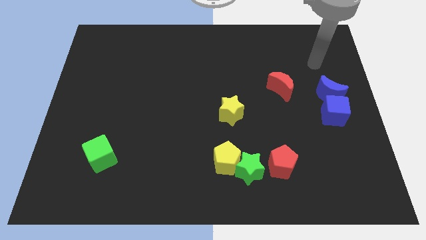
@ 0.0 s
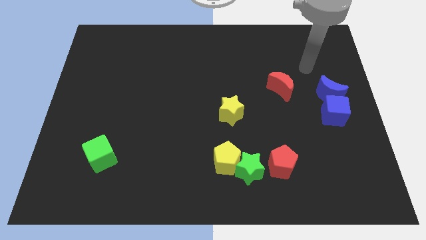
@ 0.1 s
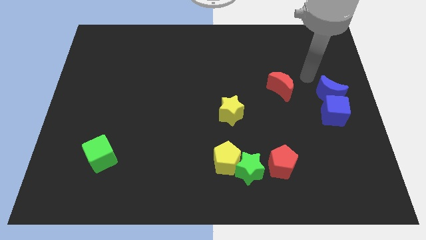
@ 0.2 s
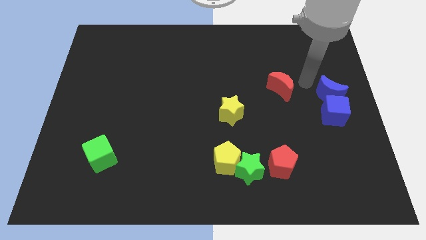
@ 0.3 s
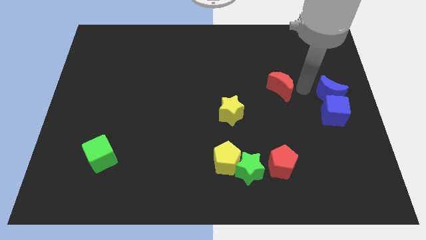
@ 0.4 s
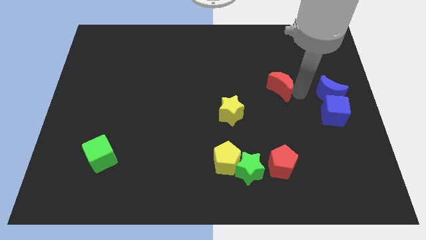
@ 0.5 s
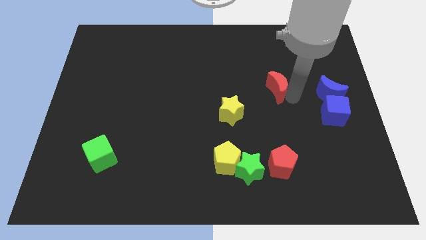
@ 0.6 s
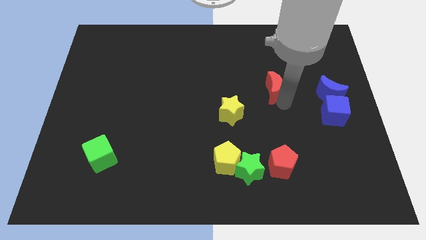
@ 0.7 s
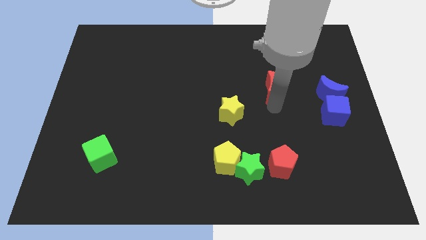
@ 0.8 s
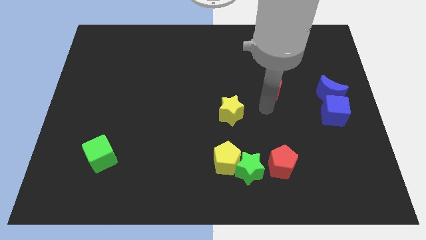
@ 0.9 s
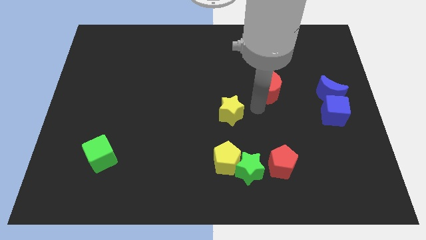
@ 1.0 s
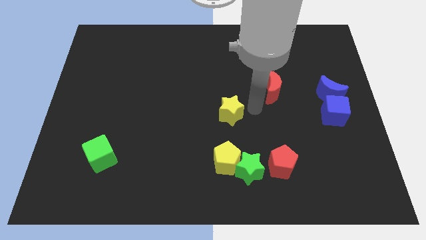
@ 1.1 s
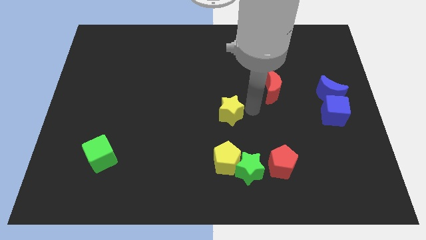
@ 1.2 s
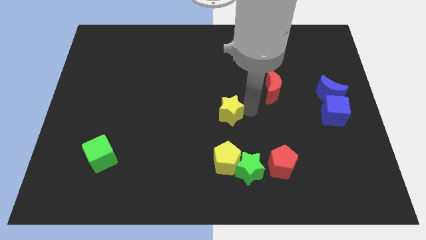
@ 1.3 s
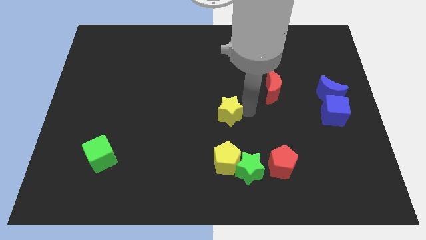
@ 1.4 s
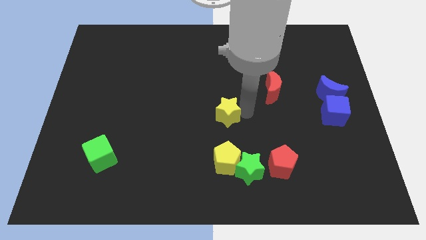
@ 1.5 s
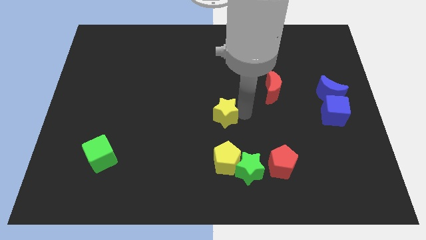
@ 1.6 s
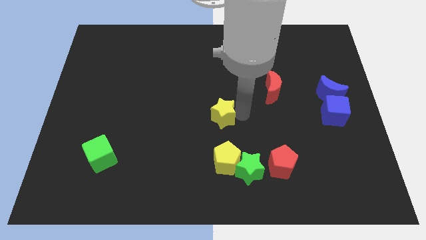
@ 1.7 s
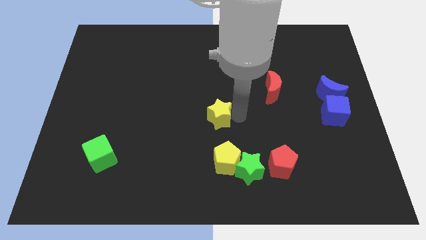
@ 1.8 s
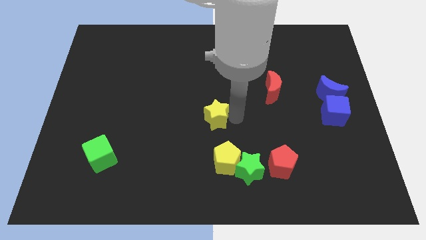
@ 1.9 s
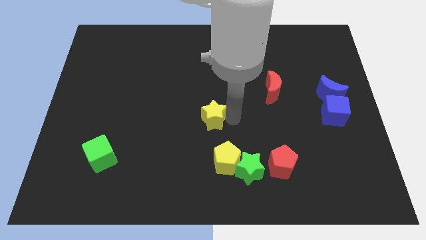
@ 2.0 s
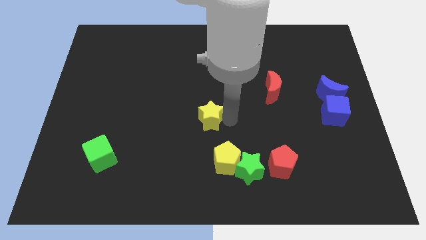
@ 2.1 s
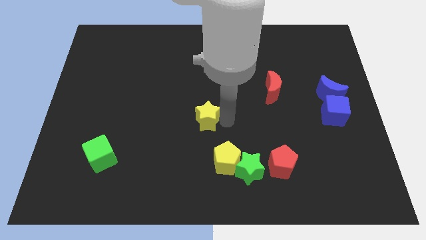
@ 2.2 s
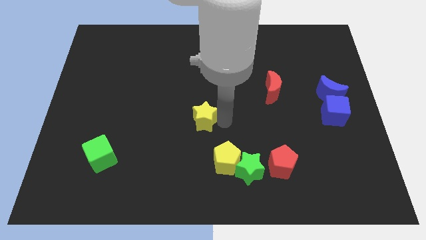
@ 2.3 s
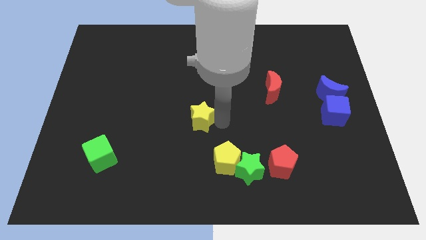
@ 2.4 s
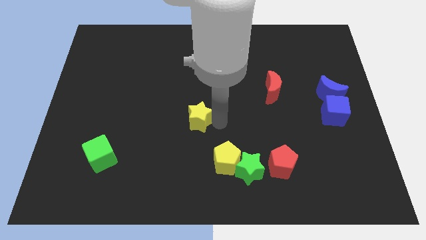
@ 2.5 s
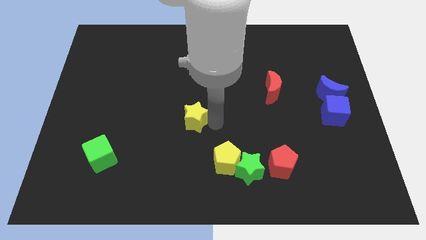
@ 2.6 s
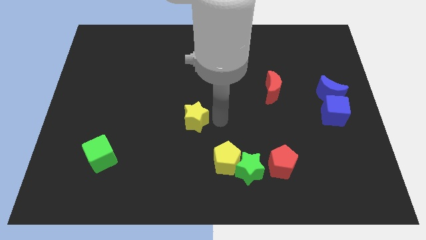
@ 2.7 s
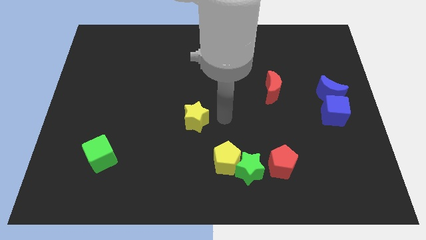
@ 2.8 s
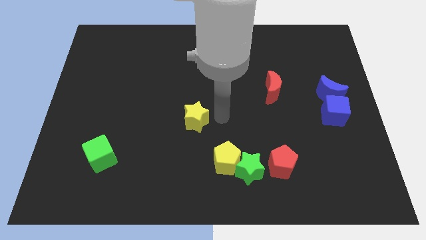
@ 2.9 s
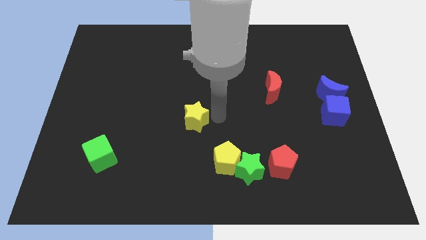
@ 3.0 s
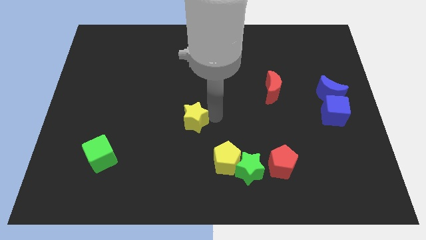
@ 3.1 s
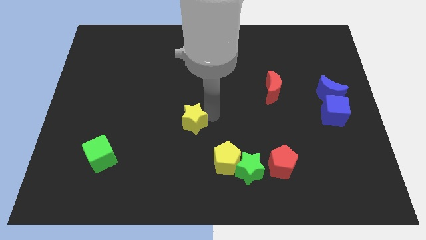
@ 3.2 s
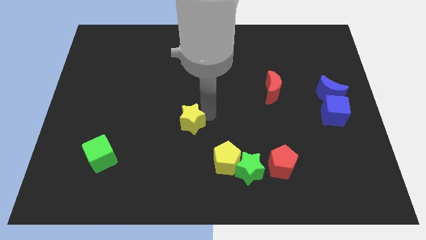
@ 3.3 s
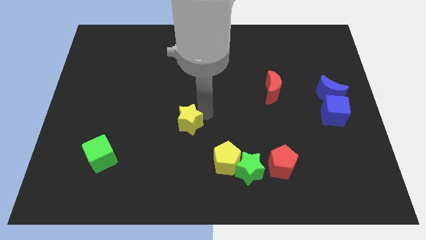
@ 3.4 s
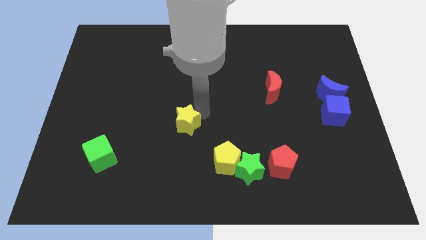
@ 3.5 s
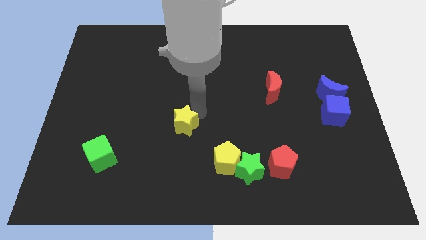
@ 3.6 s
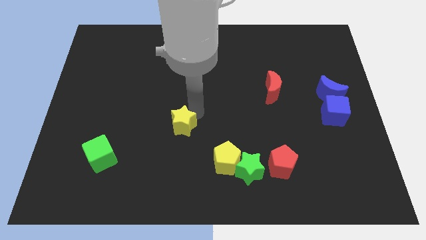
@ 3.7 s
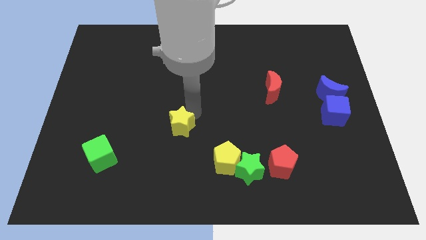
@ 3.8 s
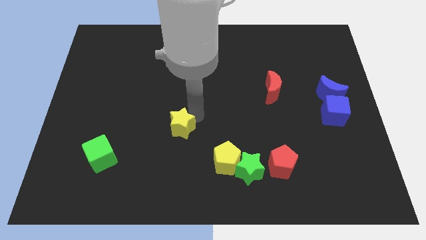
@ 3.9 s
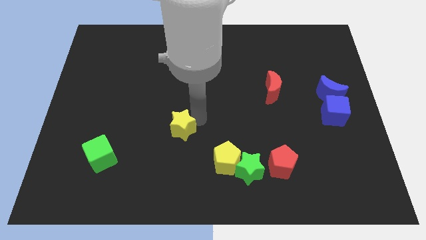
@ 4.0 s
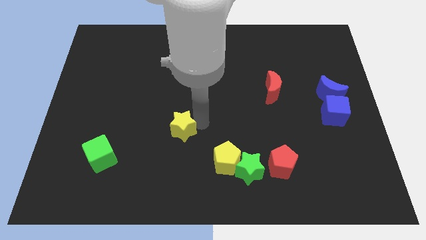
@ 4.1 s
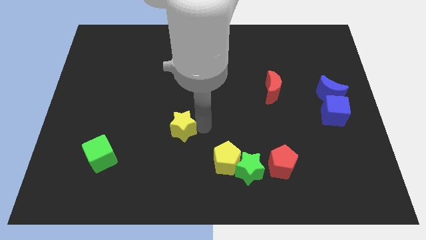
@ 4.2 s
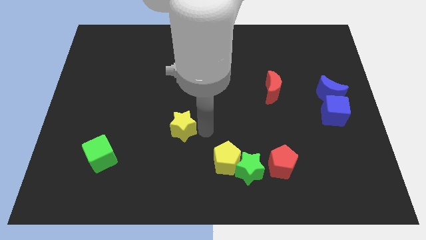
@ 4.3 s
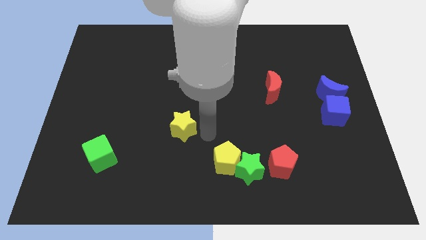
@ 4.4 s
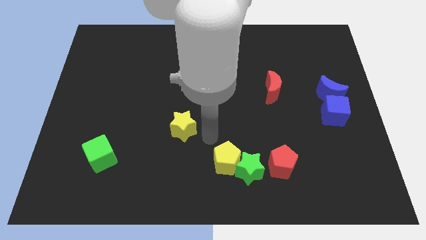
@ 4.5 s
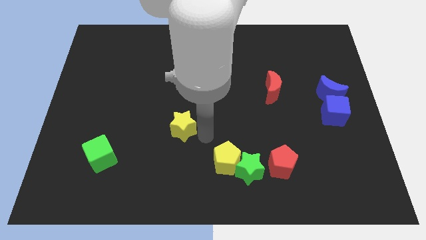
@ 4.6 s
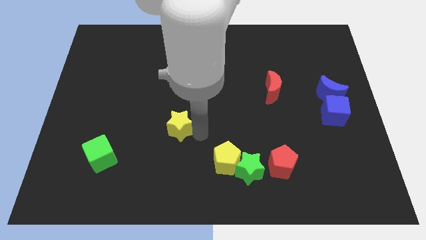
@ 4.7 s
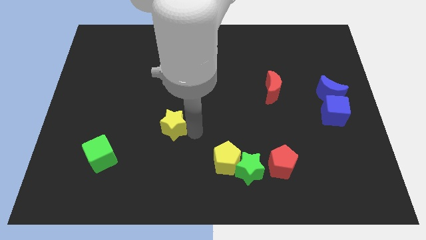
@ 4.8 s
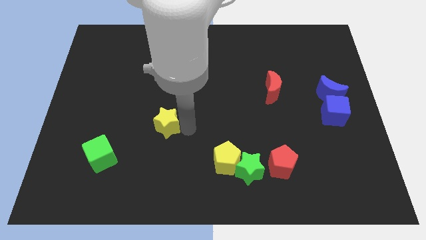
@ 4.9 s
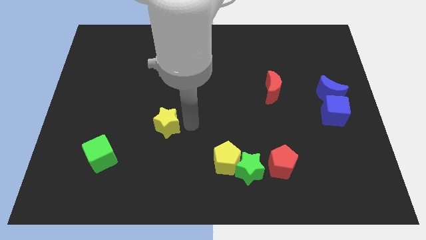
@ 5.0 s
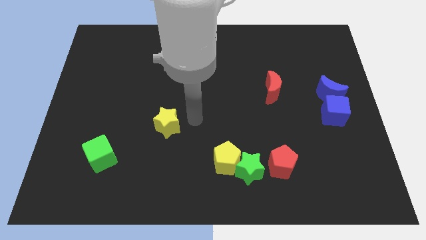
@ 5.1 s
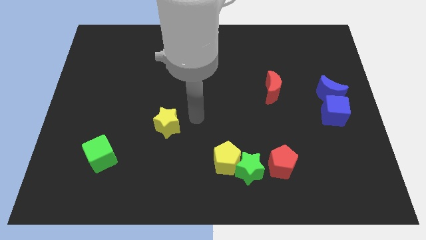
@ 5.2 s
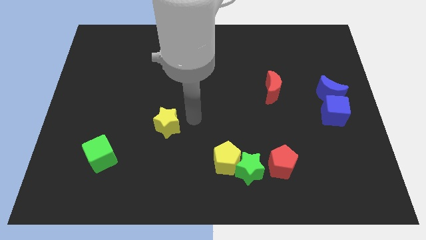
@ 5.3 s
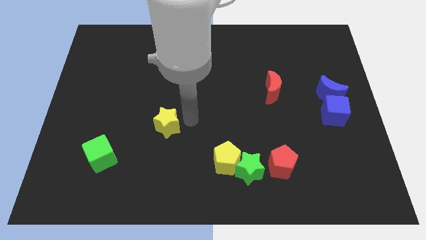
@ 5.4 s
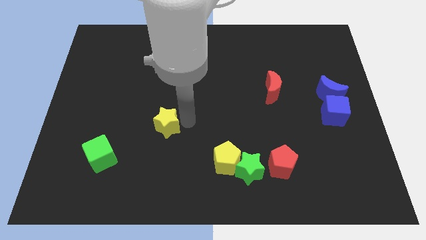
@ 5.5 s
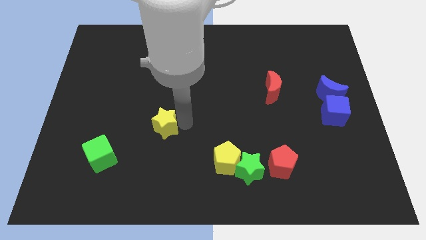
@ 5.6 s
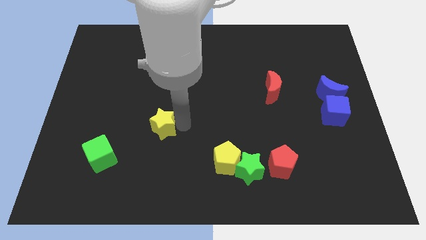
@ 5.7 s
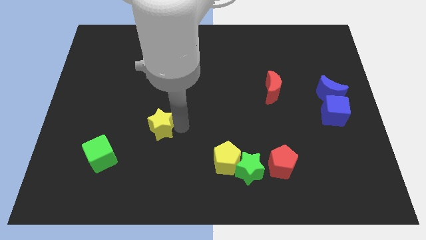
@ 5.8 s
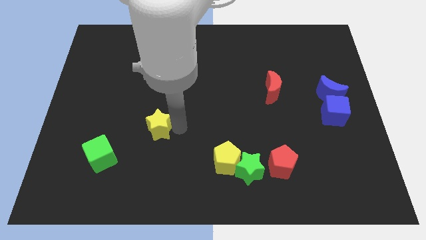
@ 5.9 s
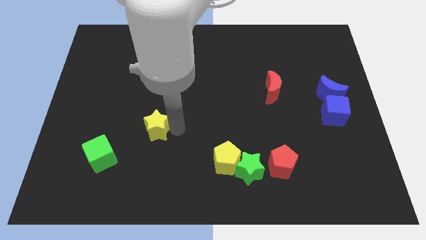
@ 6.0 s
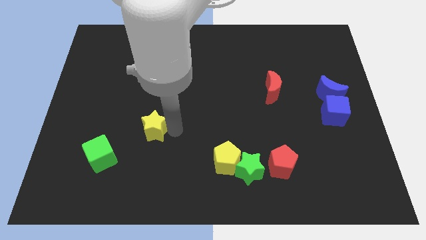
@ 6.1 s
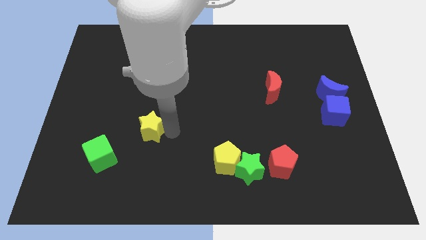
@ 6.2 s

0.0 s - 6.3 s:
push the yellow star to the top right side of the green cube

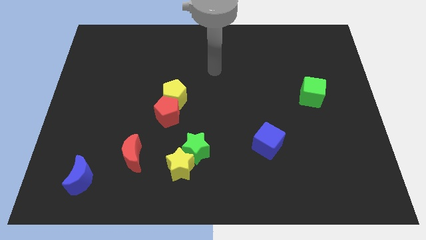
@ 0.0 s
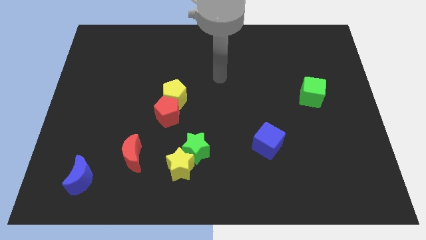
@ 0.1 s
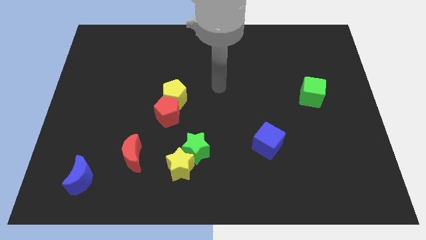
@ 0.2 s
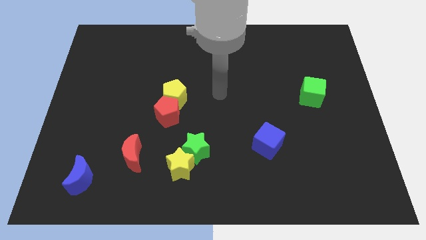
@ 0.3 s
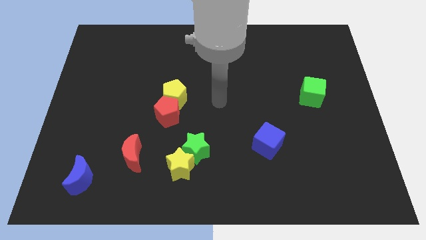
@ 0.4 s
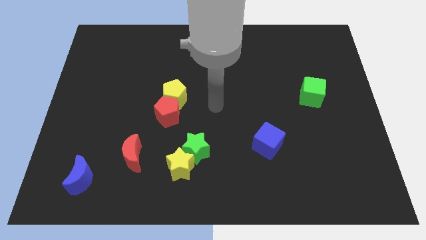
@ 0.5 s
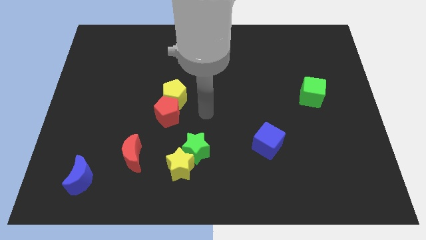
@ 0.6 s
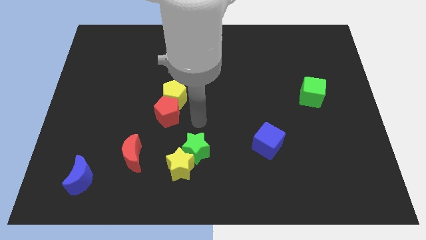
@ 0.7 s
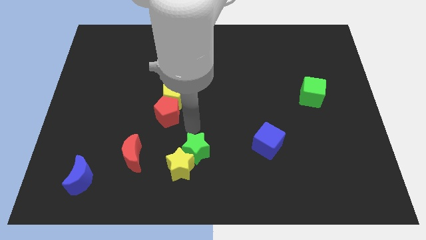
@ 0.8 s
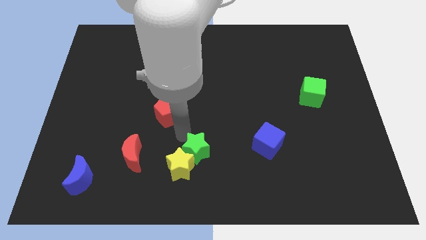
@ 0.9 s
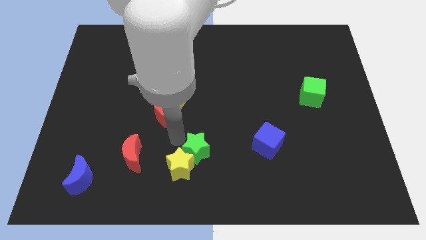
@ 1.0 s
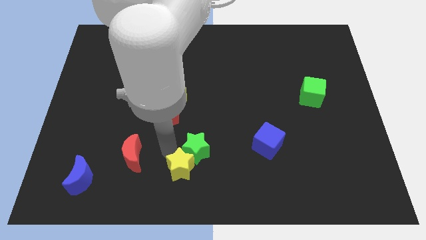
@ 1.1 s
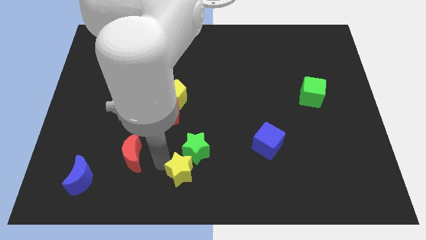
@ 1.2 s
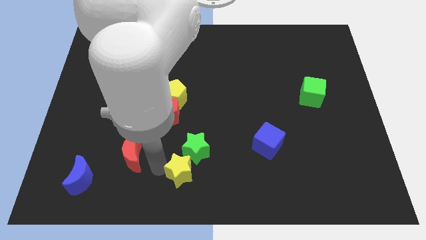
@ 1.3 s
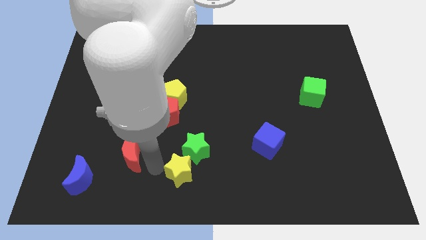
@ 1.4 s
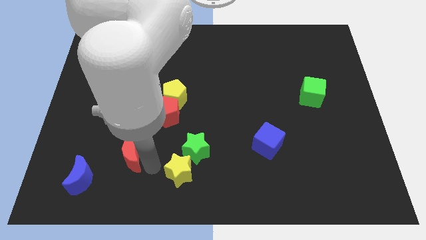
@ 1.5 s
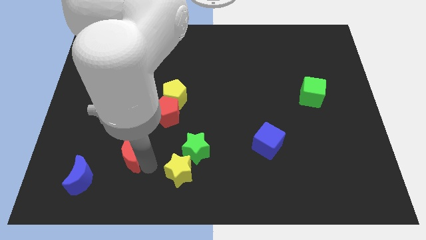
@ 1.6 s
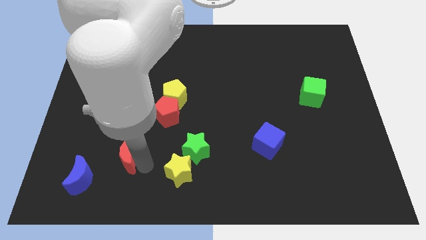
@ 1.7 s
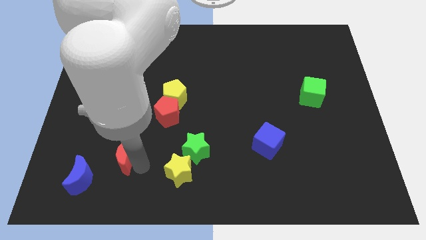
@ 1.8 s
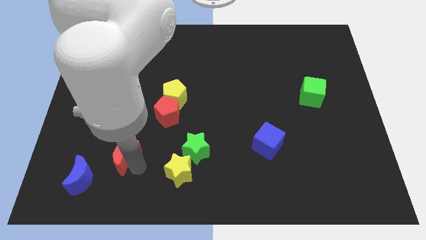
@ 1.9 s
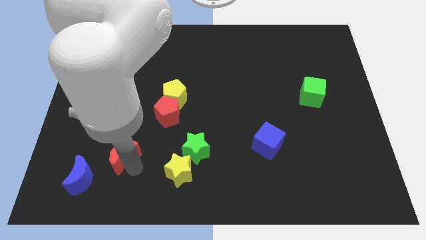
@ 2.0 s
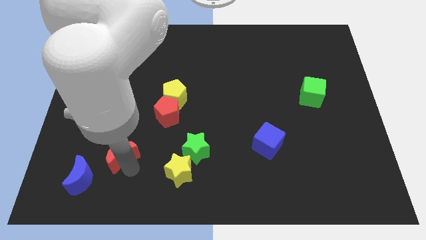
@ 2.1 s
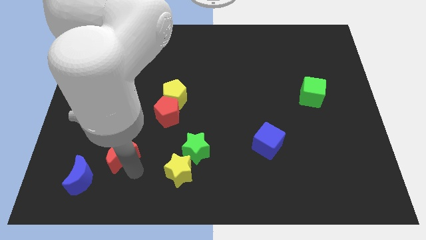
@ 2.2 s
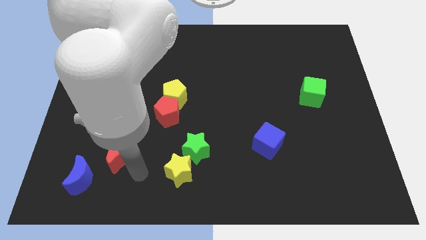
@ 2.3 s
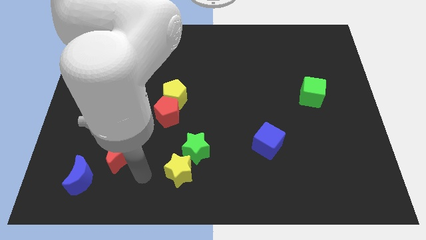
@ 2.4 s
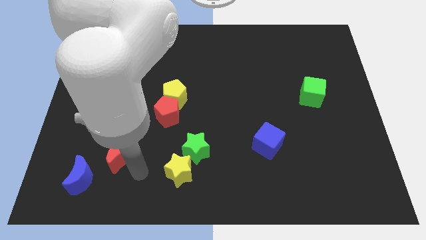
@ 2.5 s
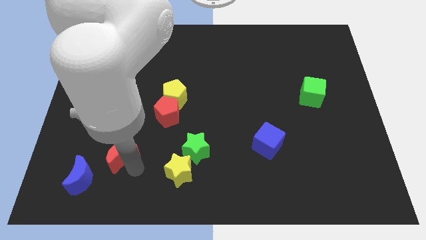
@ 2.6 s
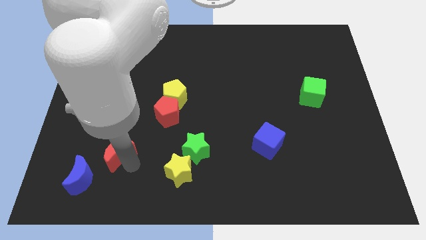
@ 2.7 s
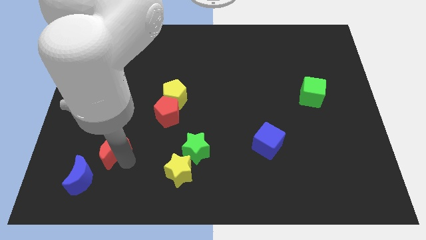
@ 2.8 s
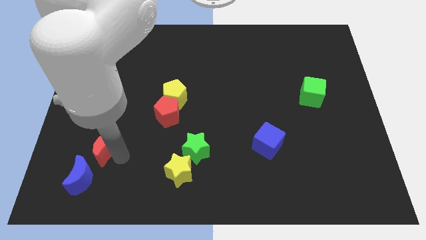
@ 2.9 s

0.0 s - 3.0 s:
move the red moon above the blue moon
